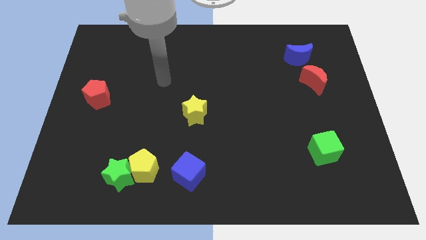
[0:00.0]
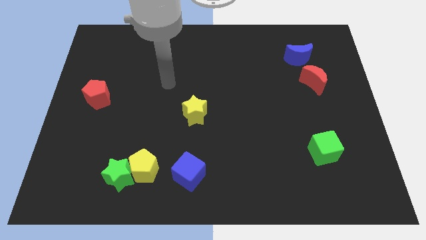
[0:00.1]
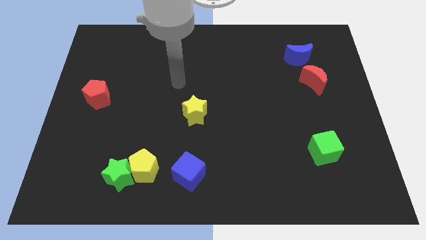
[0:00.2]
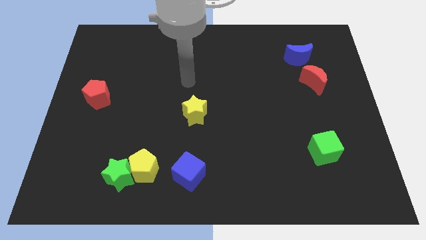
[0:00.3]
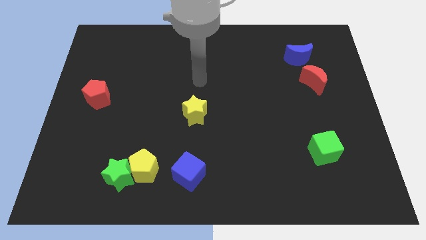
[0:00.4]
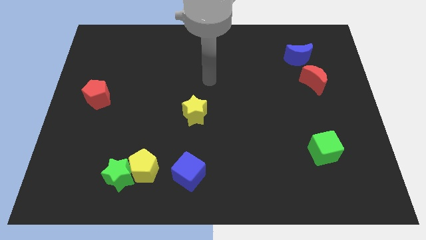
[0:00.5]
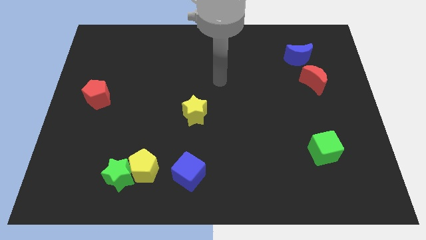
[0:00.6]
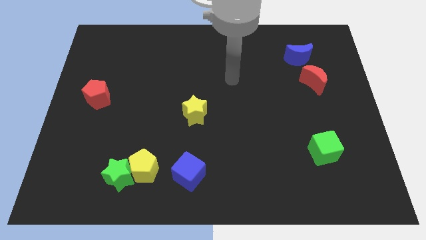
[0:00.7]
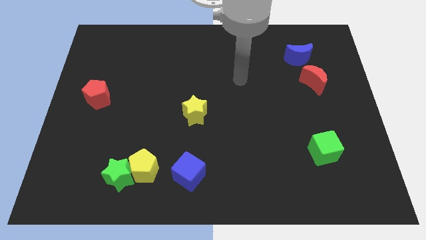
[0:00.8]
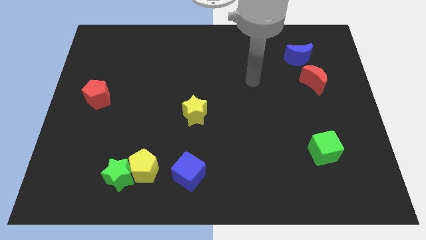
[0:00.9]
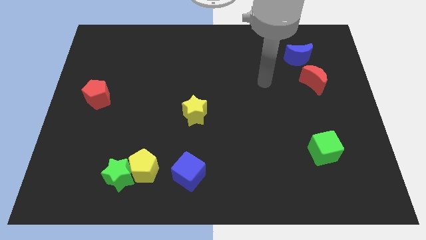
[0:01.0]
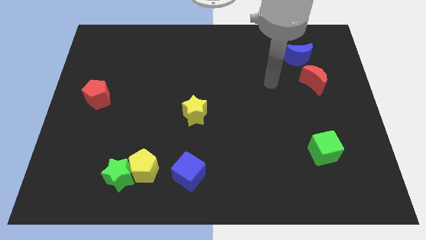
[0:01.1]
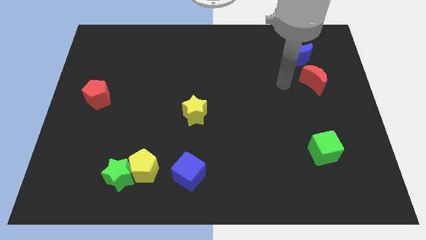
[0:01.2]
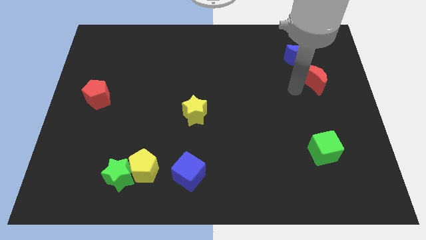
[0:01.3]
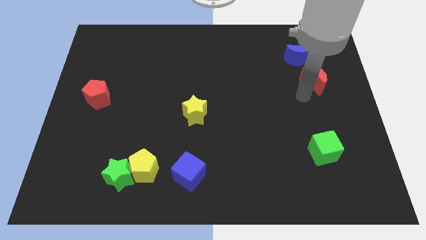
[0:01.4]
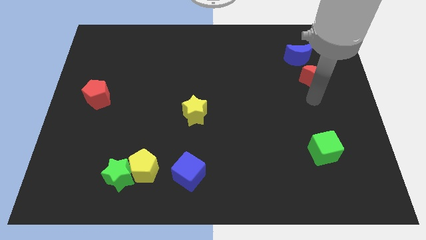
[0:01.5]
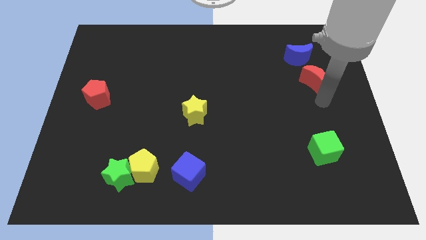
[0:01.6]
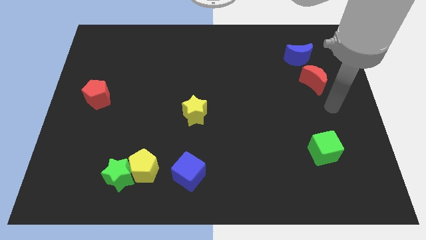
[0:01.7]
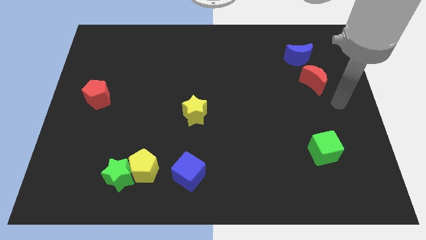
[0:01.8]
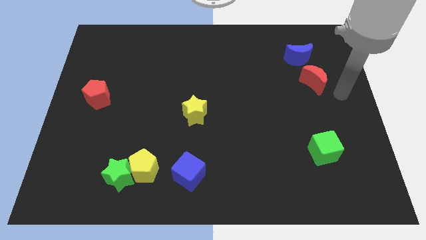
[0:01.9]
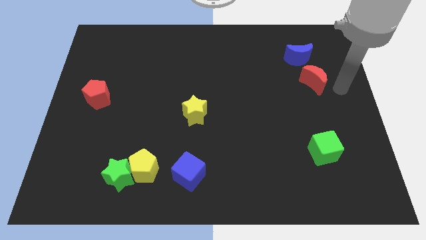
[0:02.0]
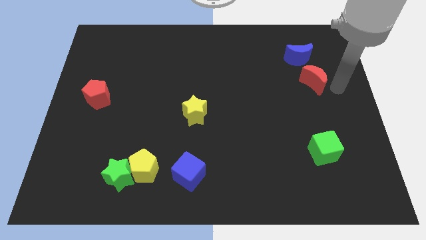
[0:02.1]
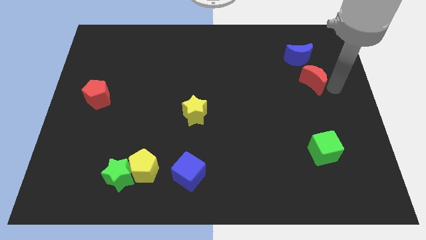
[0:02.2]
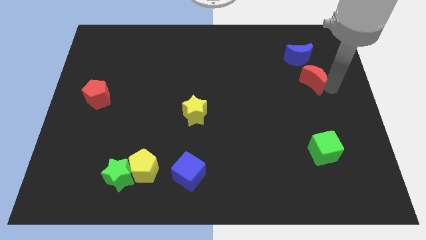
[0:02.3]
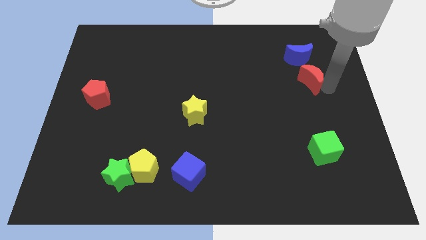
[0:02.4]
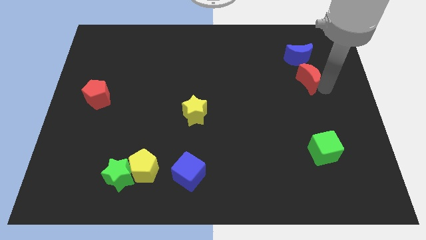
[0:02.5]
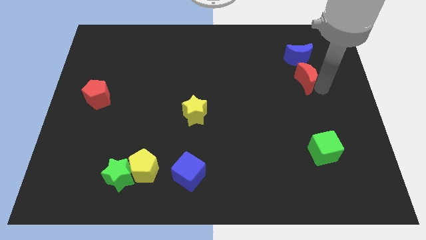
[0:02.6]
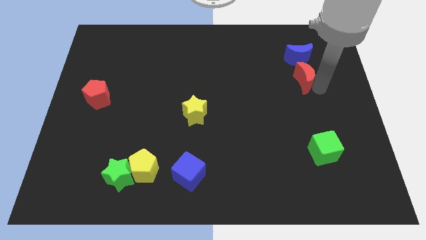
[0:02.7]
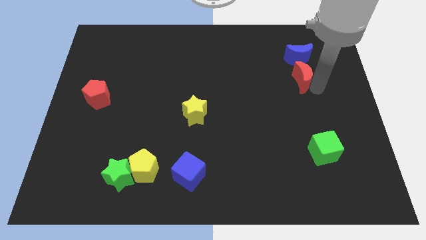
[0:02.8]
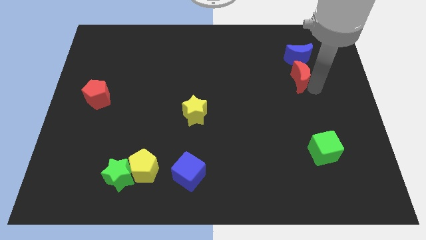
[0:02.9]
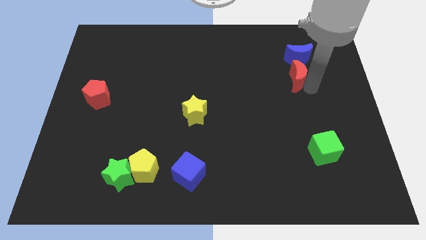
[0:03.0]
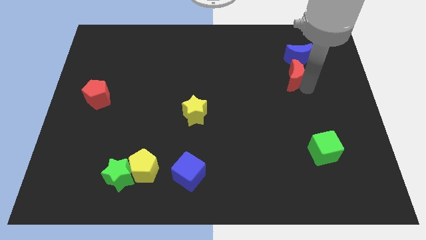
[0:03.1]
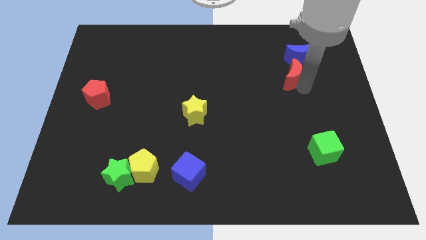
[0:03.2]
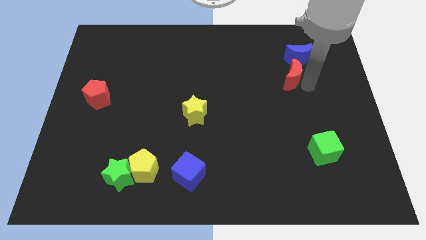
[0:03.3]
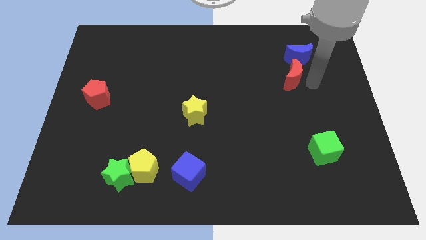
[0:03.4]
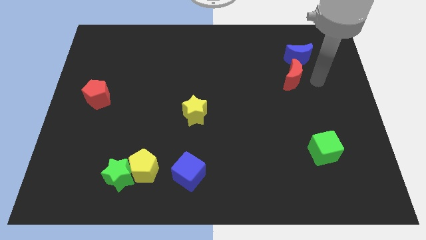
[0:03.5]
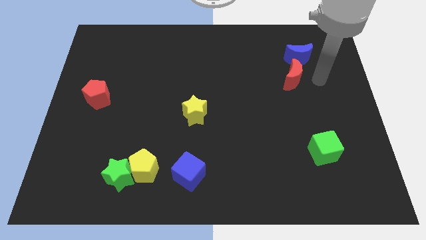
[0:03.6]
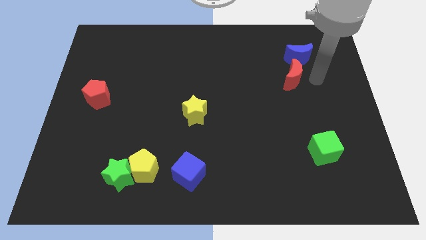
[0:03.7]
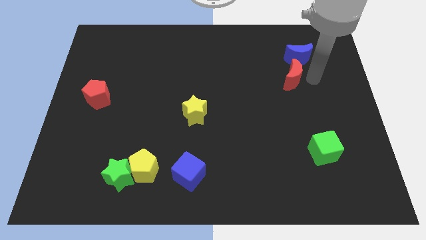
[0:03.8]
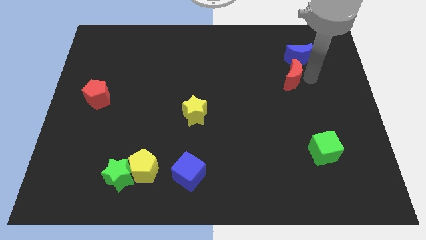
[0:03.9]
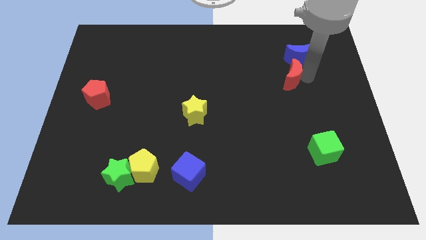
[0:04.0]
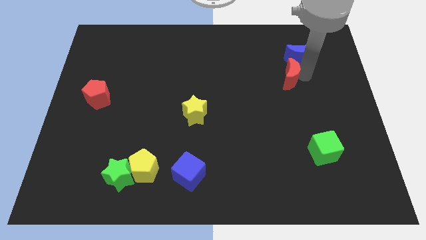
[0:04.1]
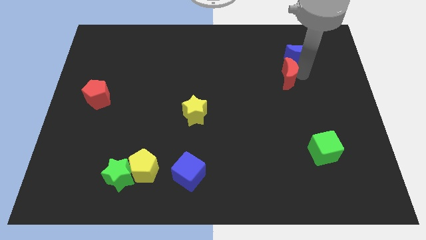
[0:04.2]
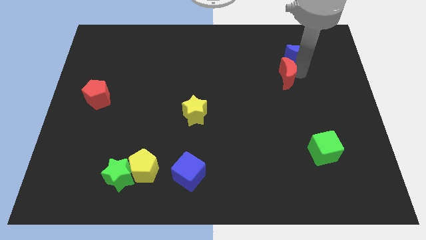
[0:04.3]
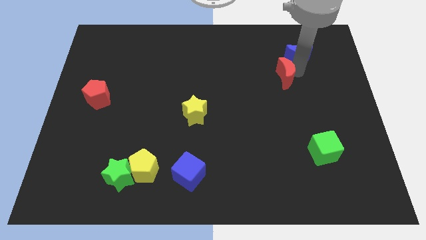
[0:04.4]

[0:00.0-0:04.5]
slightly move the red moon to the left

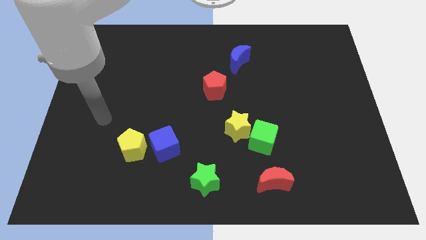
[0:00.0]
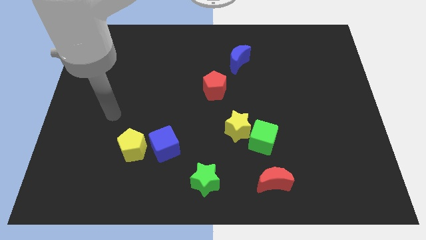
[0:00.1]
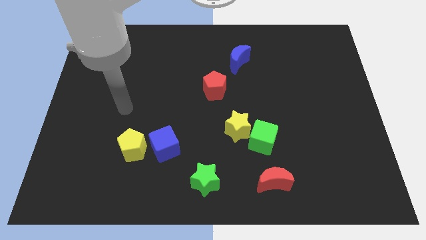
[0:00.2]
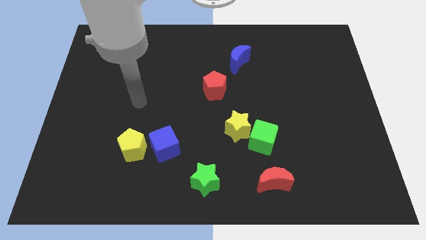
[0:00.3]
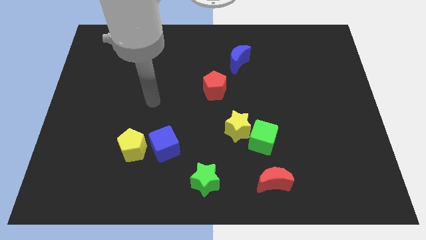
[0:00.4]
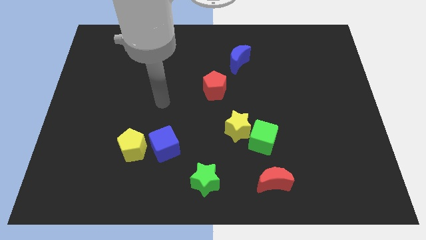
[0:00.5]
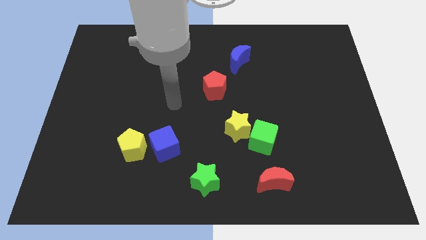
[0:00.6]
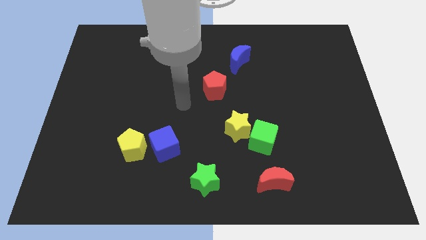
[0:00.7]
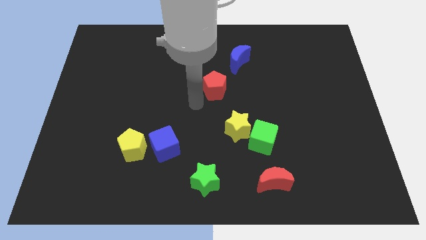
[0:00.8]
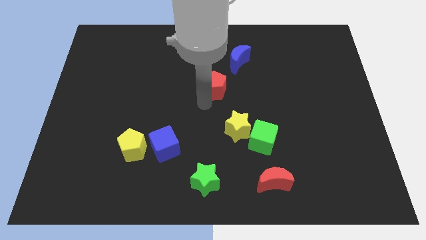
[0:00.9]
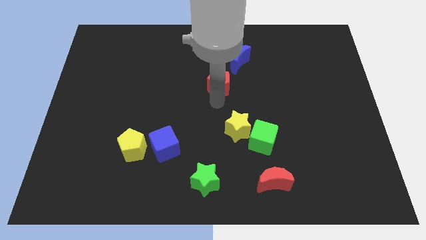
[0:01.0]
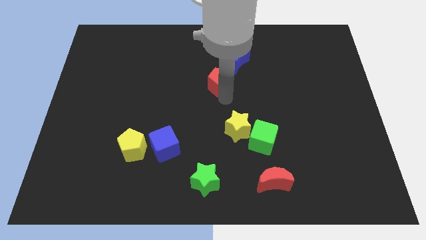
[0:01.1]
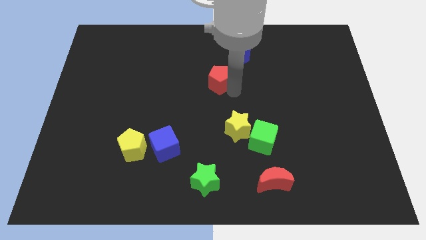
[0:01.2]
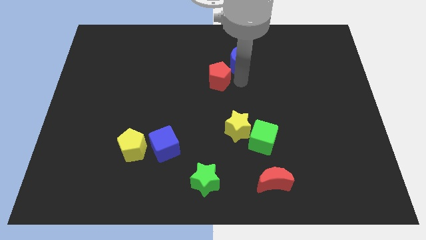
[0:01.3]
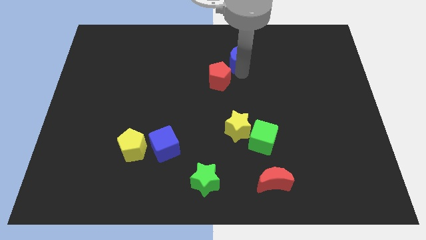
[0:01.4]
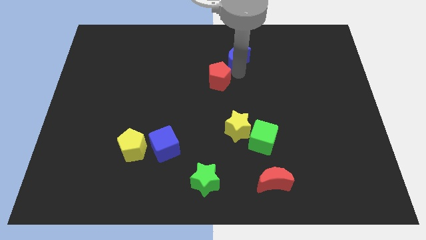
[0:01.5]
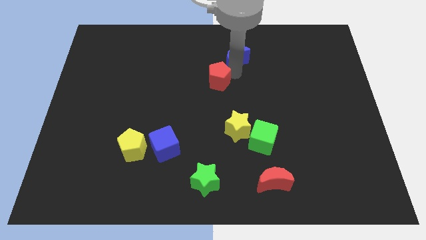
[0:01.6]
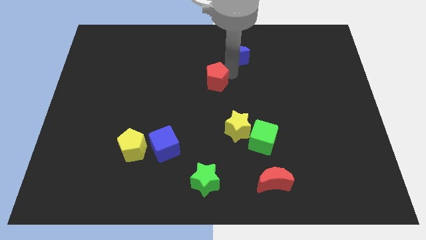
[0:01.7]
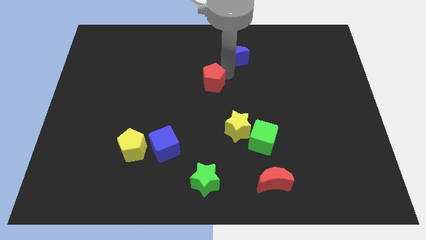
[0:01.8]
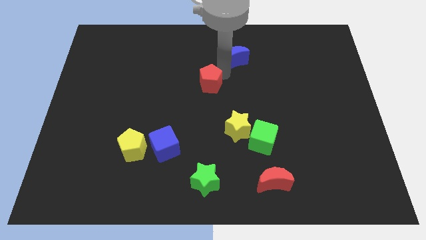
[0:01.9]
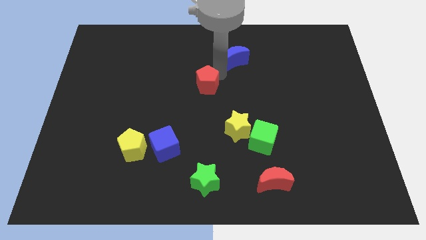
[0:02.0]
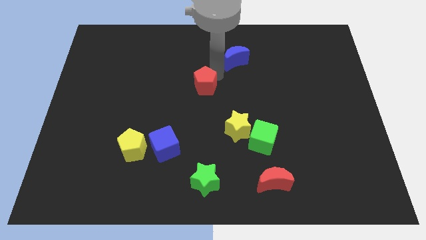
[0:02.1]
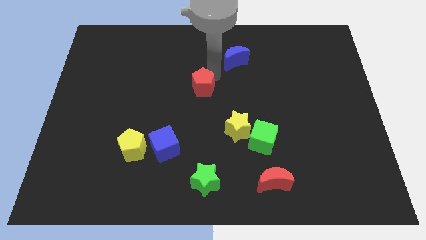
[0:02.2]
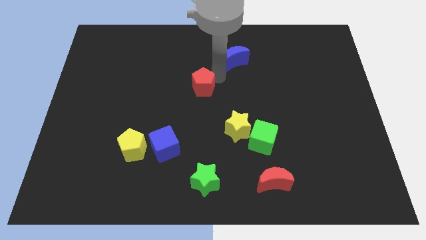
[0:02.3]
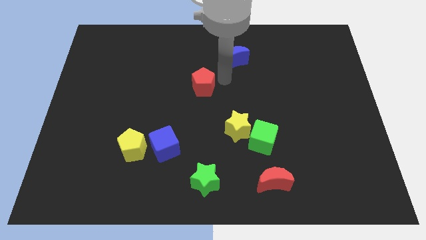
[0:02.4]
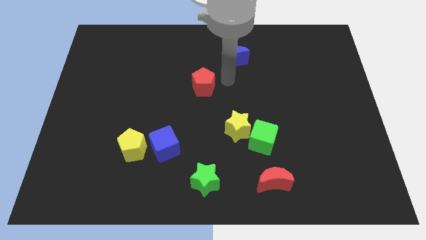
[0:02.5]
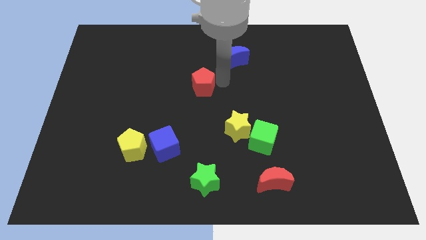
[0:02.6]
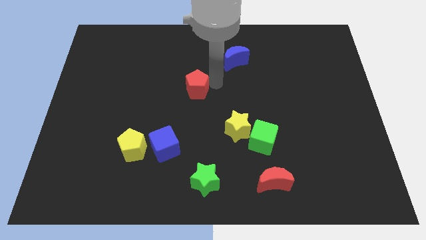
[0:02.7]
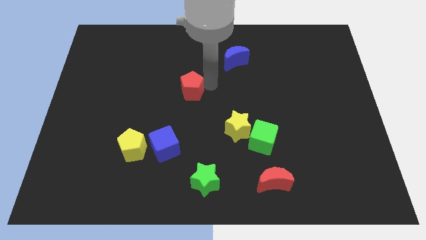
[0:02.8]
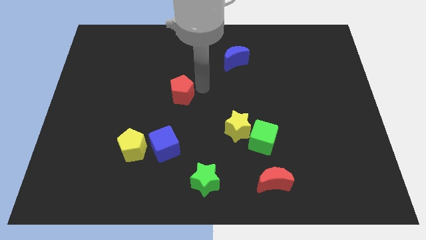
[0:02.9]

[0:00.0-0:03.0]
move the red pentagon a little left

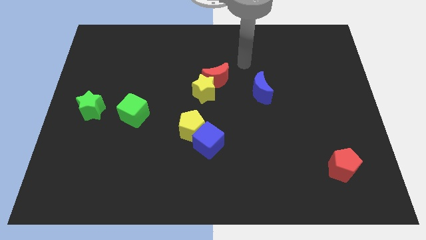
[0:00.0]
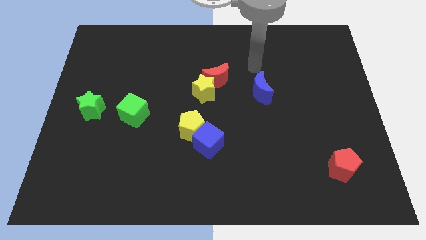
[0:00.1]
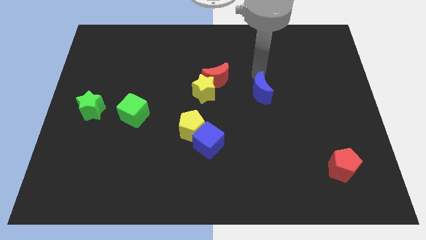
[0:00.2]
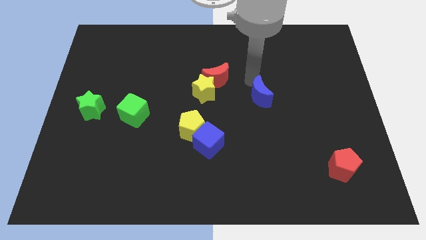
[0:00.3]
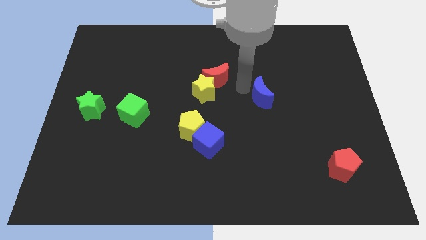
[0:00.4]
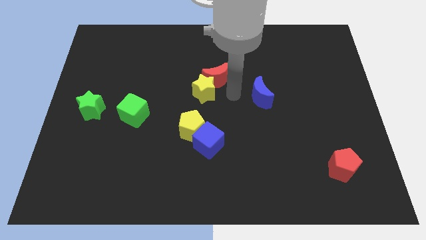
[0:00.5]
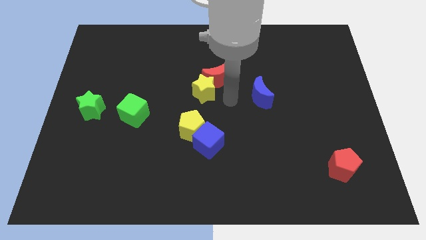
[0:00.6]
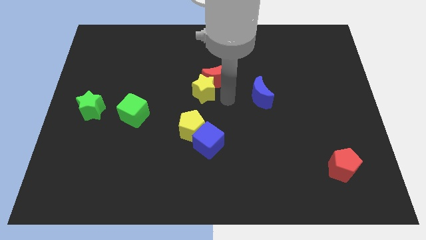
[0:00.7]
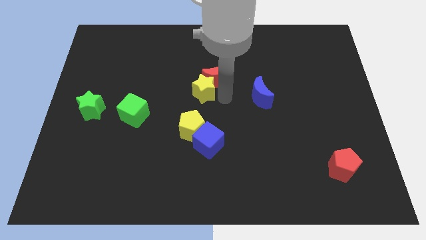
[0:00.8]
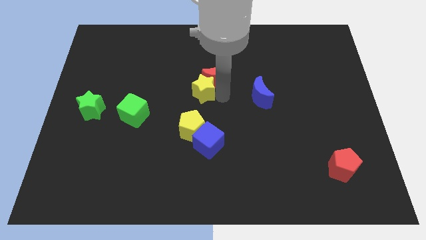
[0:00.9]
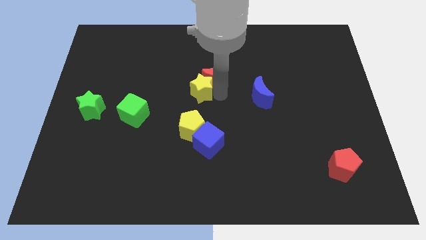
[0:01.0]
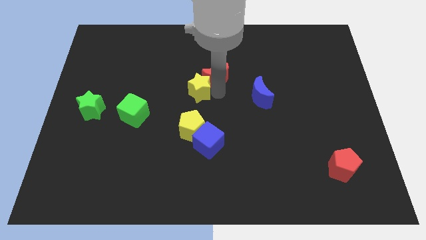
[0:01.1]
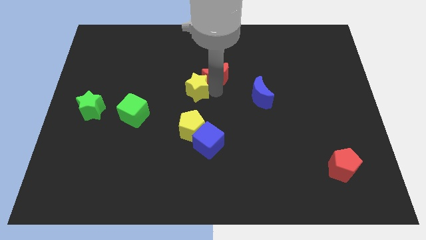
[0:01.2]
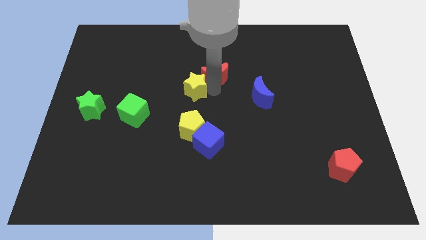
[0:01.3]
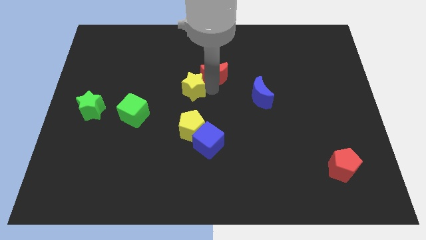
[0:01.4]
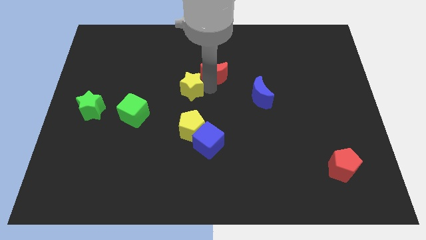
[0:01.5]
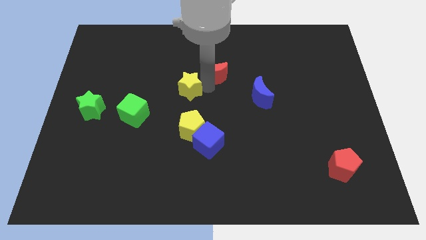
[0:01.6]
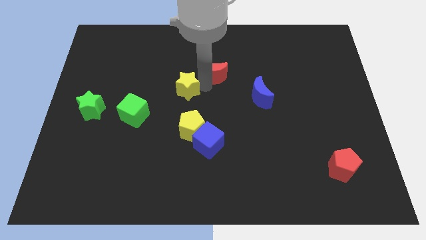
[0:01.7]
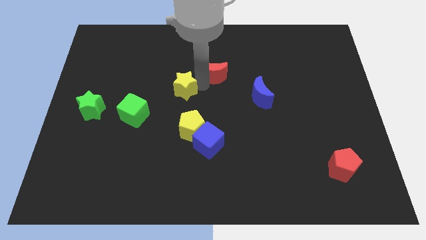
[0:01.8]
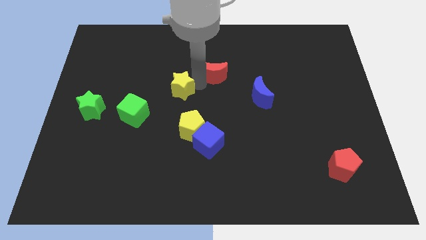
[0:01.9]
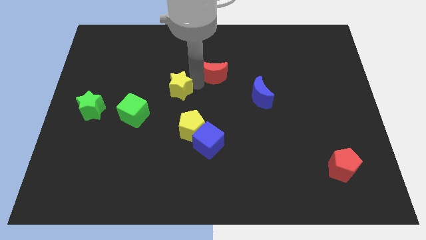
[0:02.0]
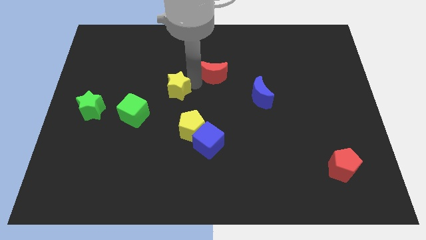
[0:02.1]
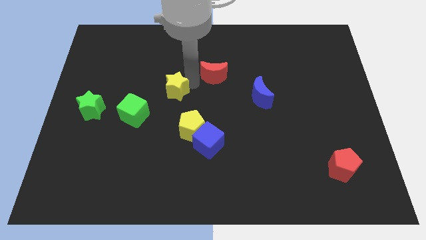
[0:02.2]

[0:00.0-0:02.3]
push the yellow star somewhat left
